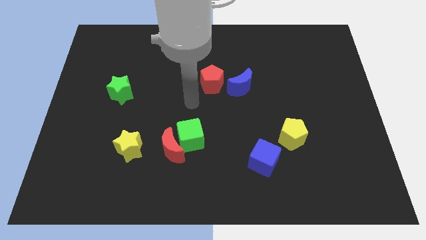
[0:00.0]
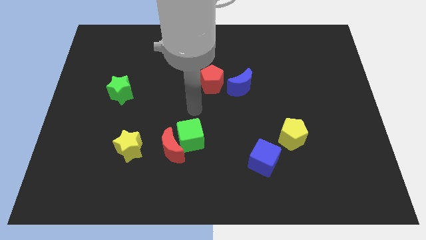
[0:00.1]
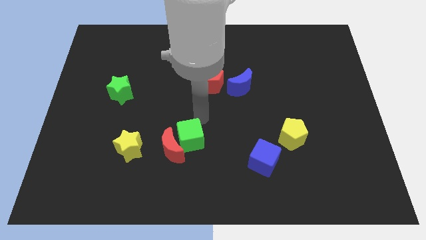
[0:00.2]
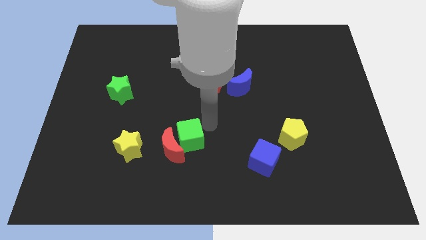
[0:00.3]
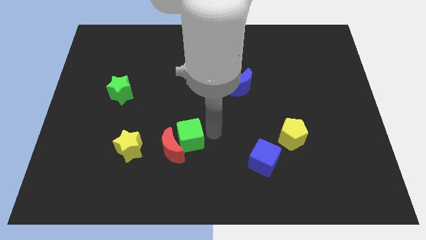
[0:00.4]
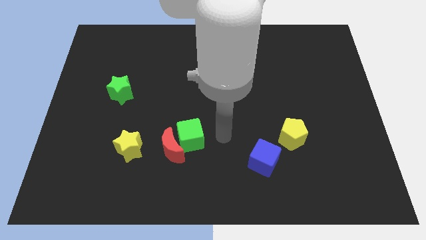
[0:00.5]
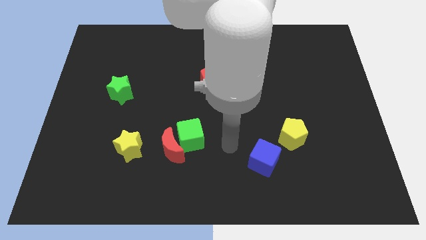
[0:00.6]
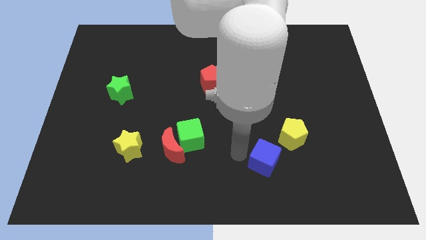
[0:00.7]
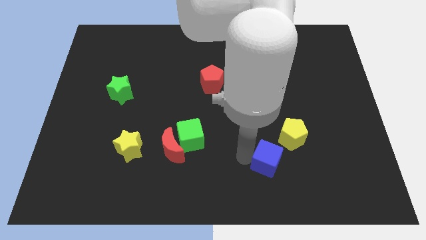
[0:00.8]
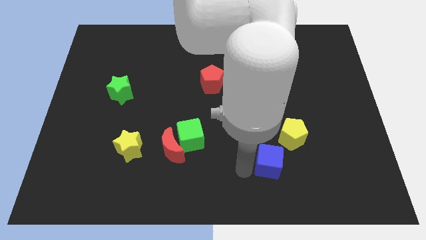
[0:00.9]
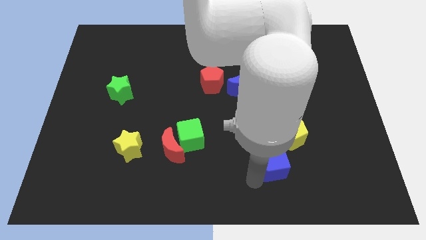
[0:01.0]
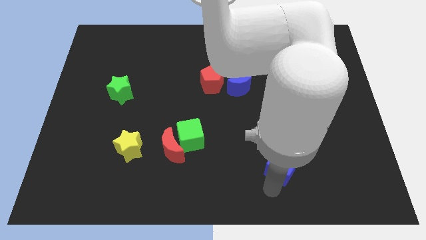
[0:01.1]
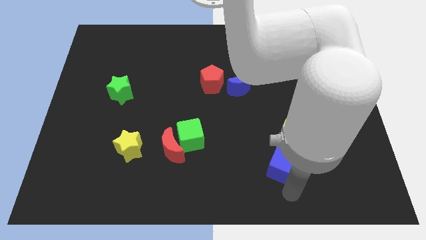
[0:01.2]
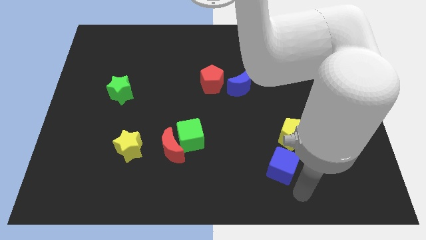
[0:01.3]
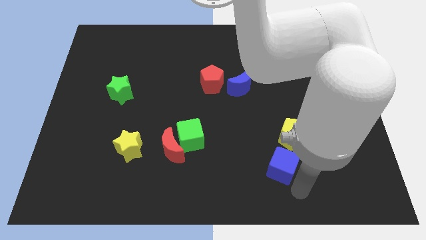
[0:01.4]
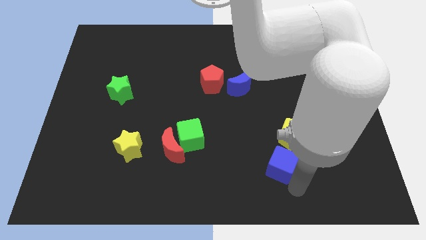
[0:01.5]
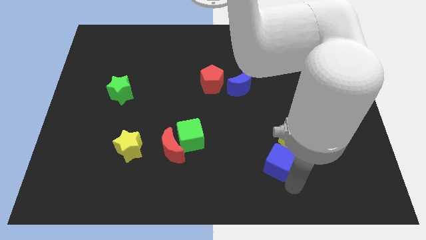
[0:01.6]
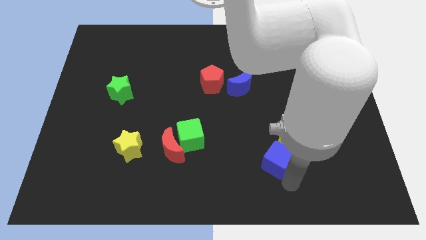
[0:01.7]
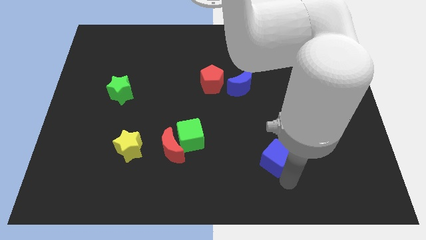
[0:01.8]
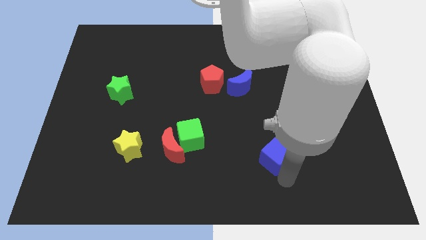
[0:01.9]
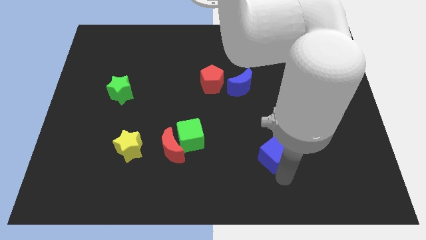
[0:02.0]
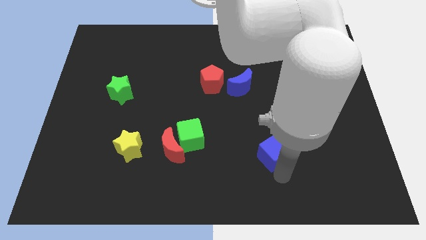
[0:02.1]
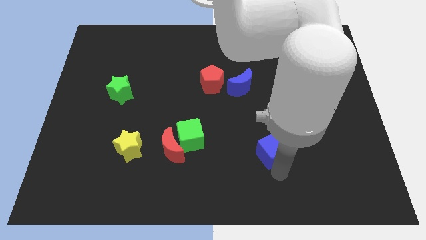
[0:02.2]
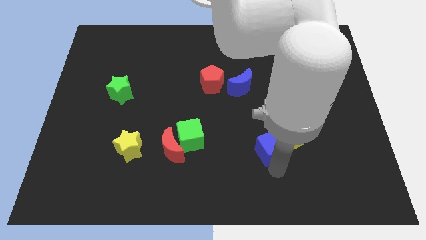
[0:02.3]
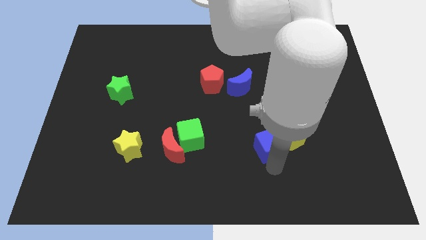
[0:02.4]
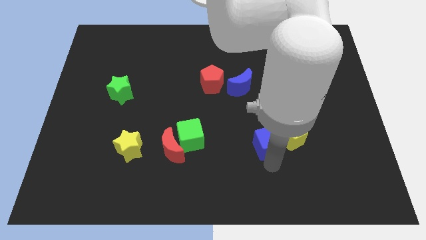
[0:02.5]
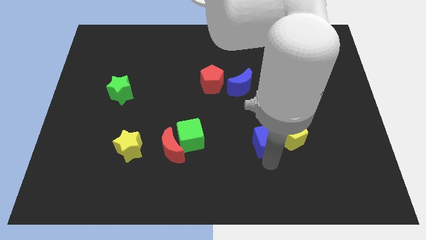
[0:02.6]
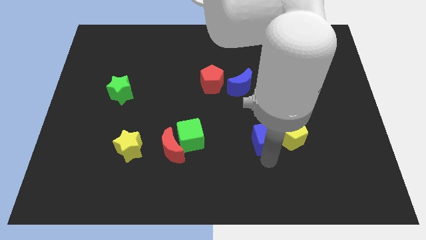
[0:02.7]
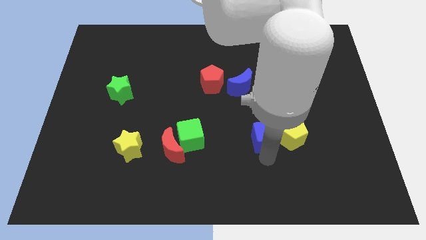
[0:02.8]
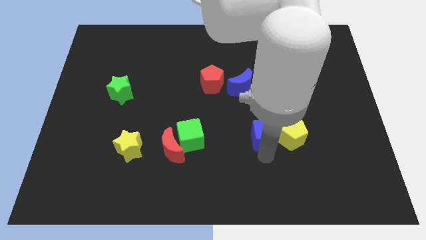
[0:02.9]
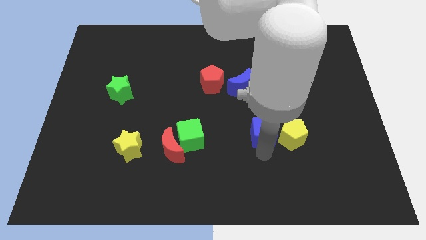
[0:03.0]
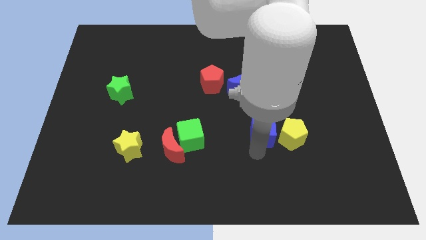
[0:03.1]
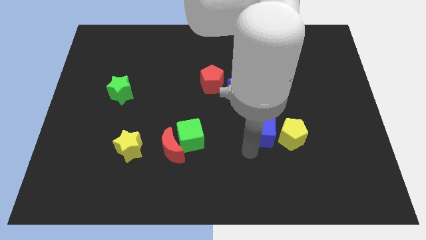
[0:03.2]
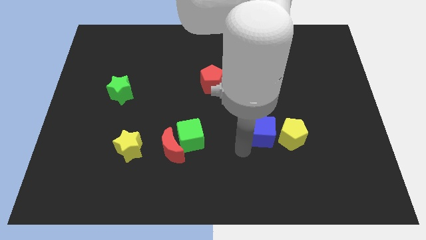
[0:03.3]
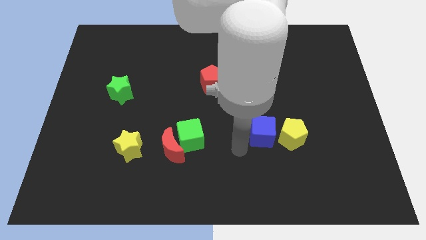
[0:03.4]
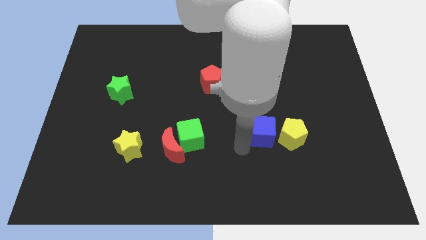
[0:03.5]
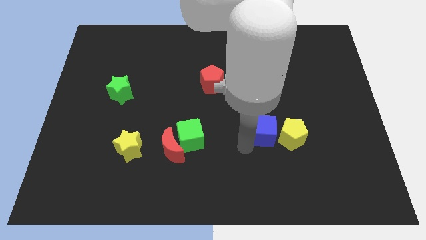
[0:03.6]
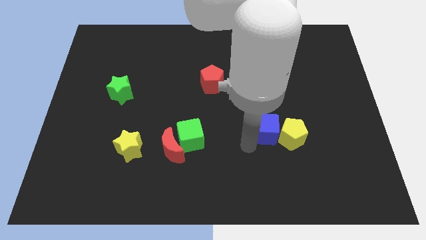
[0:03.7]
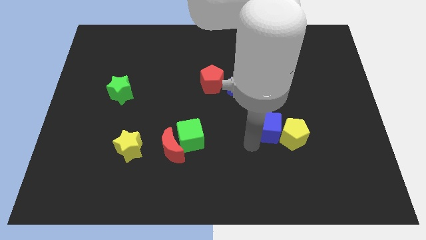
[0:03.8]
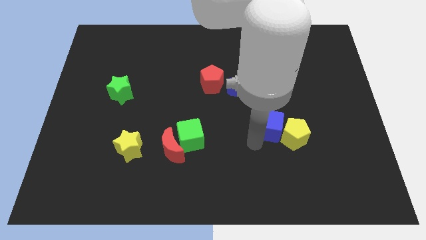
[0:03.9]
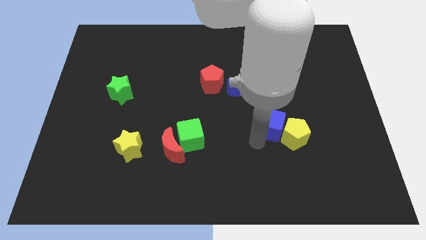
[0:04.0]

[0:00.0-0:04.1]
move the blue cube upwards and then right somewhat

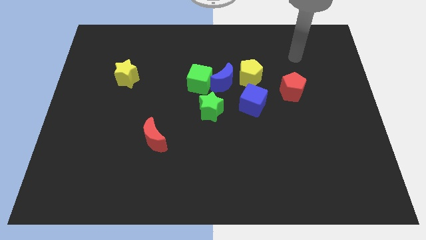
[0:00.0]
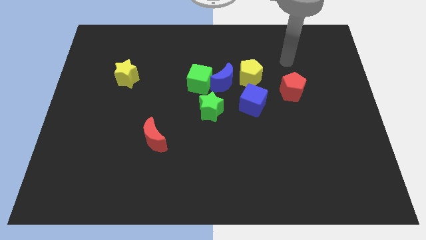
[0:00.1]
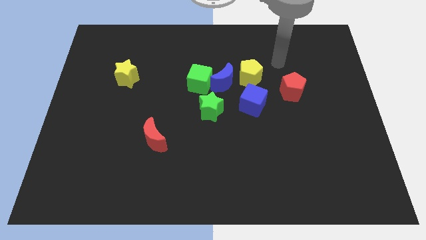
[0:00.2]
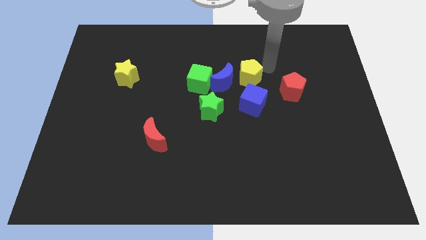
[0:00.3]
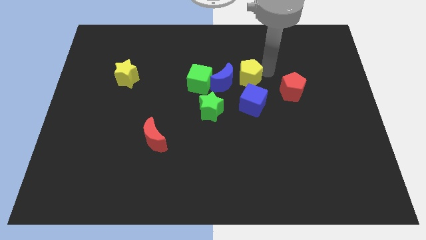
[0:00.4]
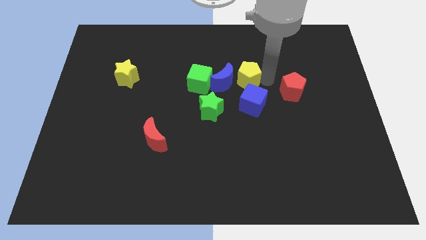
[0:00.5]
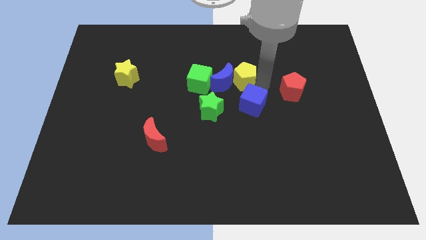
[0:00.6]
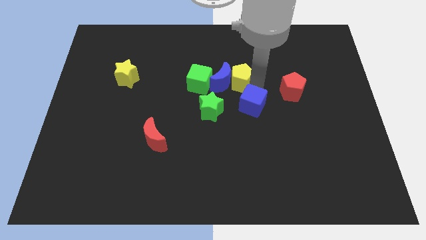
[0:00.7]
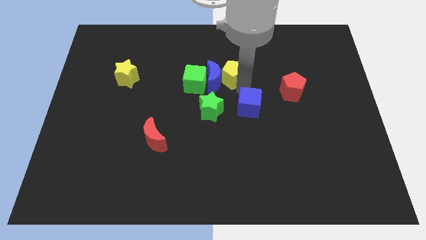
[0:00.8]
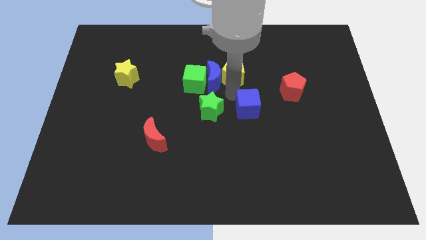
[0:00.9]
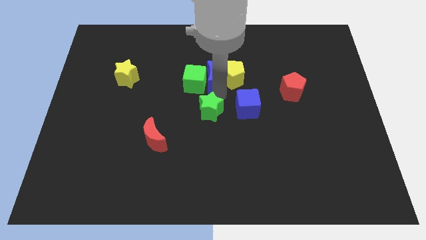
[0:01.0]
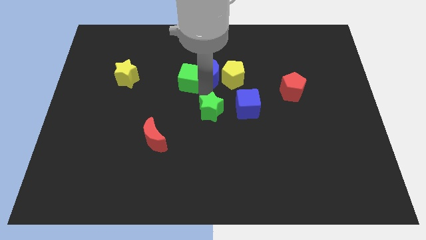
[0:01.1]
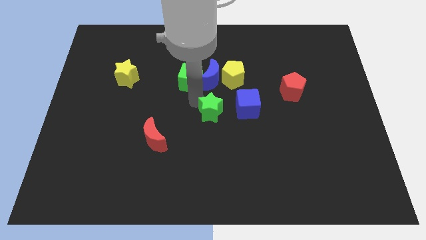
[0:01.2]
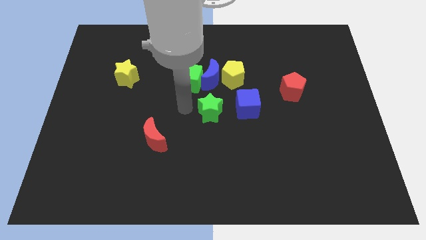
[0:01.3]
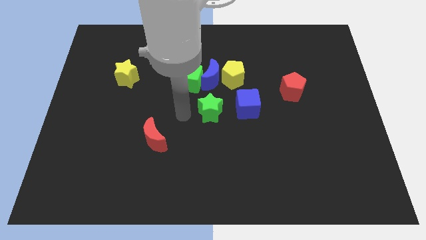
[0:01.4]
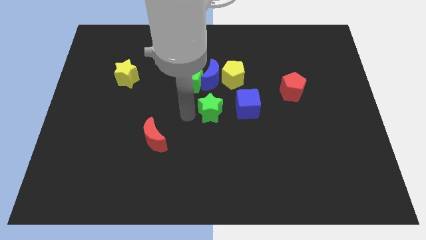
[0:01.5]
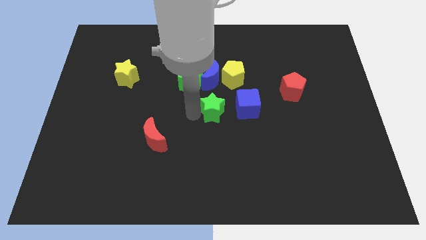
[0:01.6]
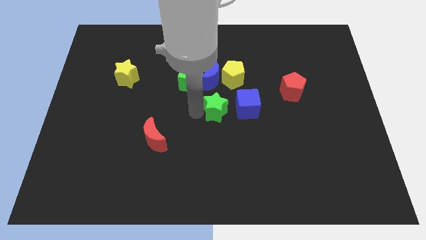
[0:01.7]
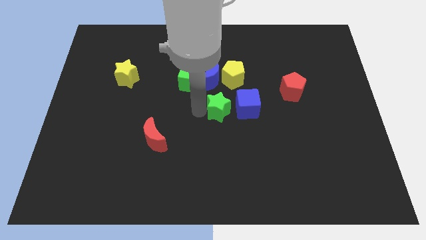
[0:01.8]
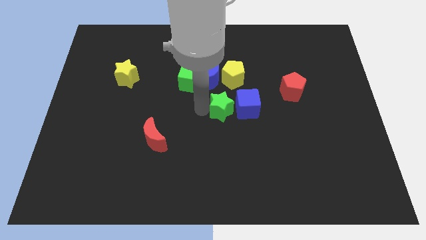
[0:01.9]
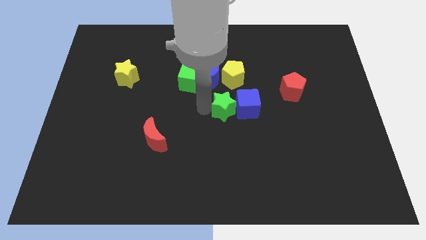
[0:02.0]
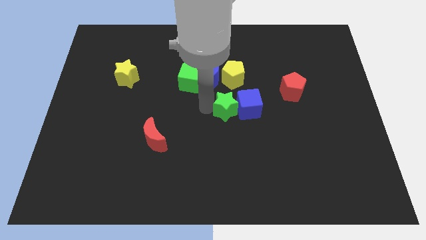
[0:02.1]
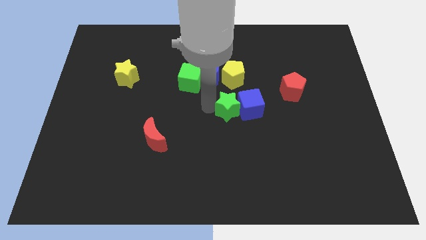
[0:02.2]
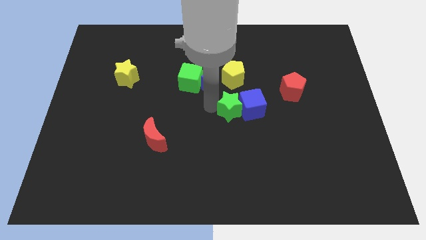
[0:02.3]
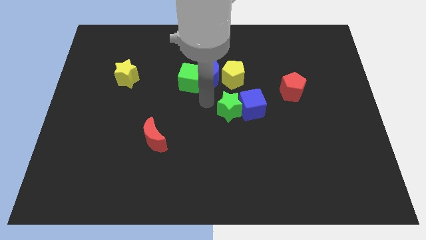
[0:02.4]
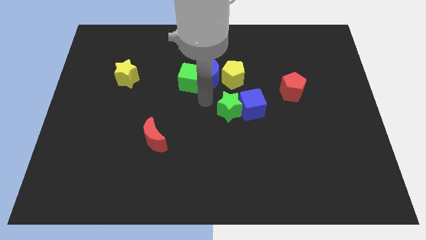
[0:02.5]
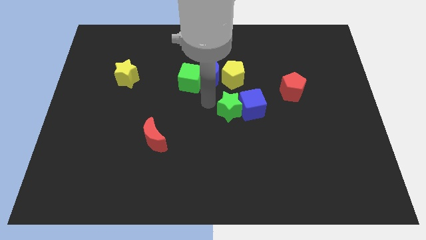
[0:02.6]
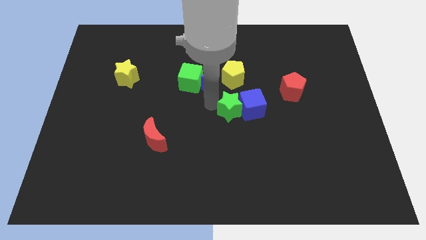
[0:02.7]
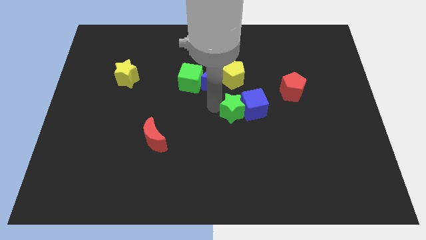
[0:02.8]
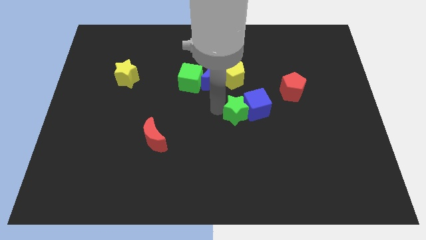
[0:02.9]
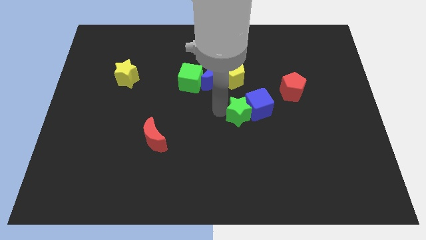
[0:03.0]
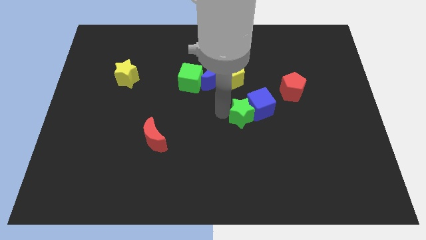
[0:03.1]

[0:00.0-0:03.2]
slide the green star somewhat right
